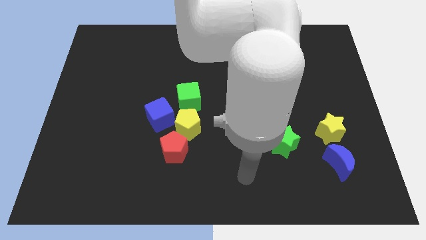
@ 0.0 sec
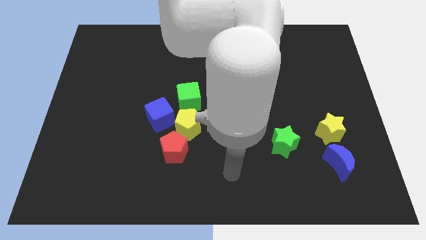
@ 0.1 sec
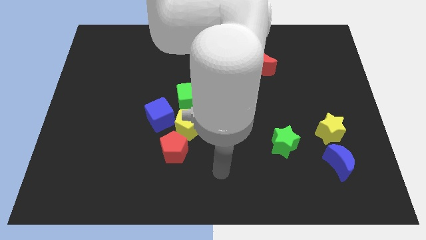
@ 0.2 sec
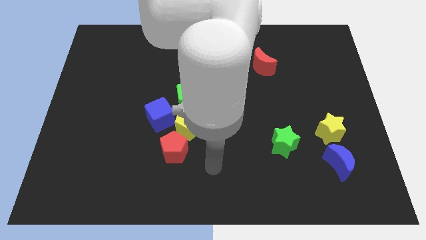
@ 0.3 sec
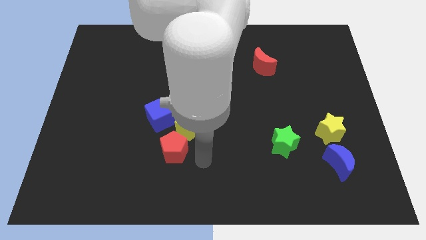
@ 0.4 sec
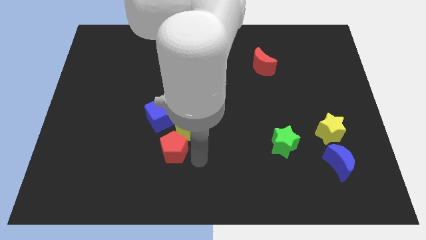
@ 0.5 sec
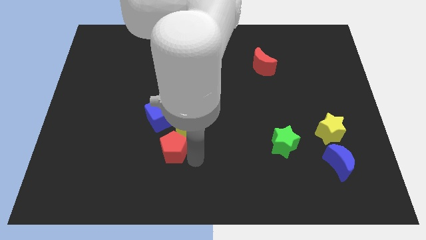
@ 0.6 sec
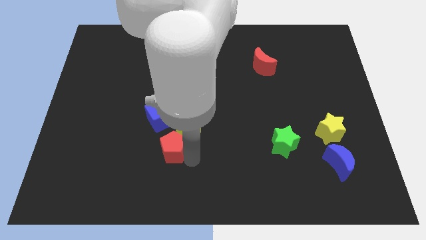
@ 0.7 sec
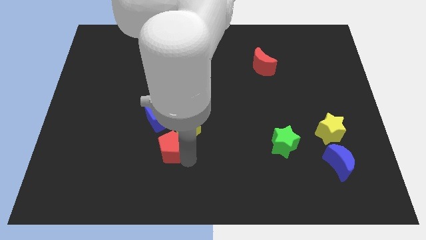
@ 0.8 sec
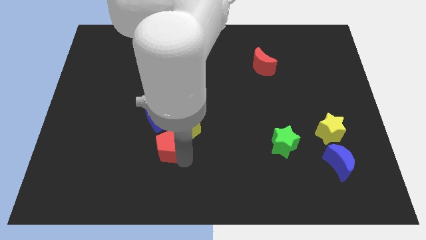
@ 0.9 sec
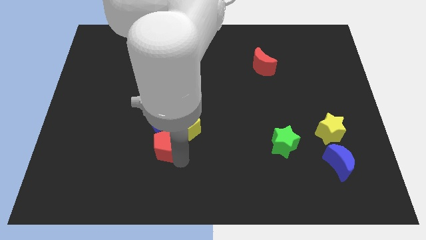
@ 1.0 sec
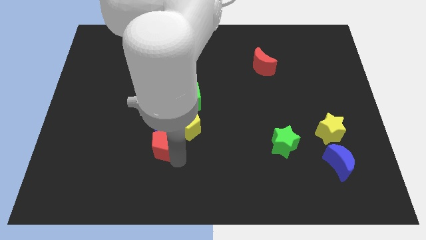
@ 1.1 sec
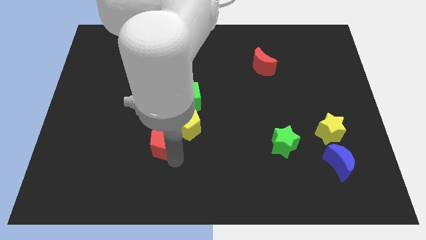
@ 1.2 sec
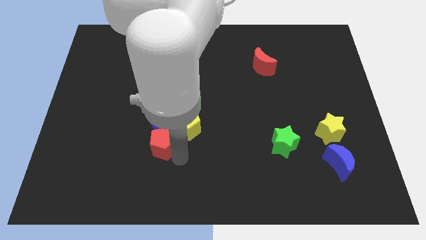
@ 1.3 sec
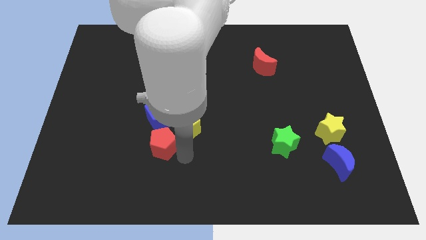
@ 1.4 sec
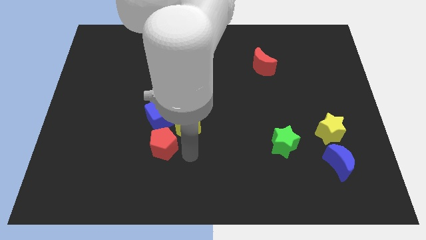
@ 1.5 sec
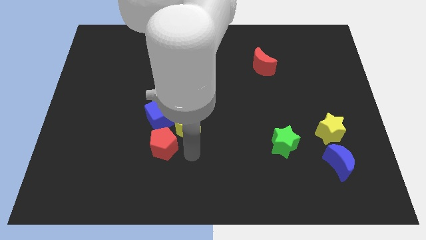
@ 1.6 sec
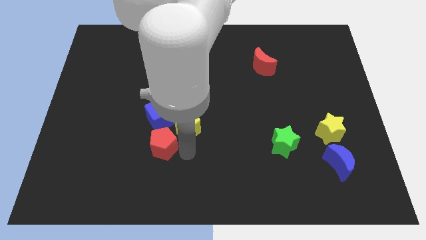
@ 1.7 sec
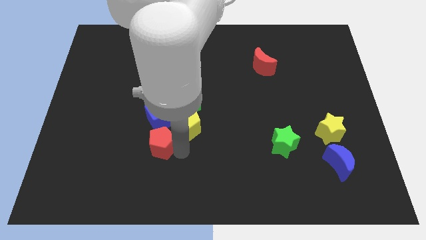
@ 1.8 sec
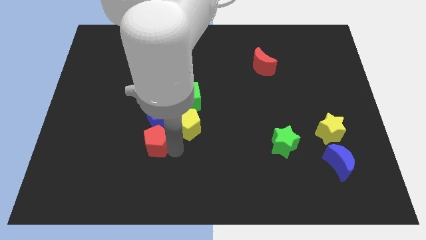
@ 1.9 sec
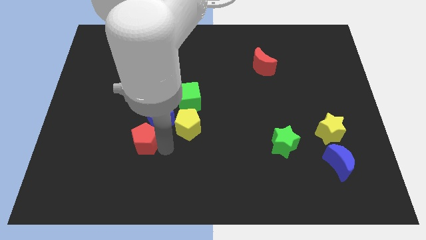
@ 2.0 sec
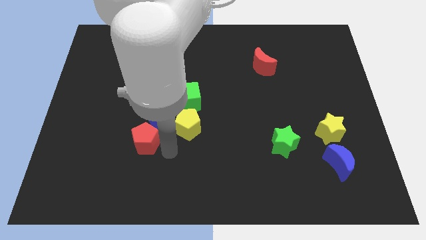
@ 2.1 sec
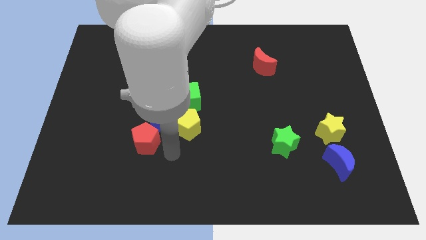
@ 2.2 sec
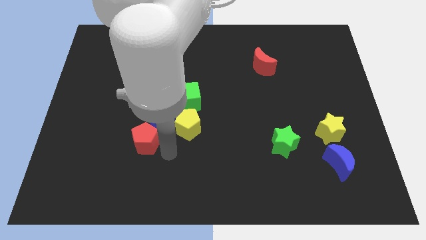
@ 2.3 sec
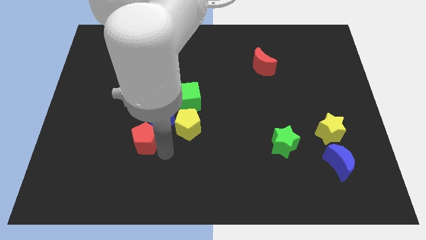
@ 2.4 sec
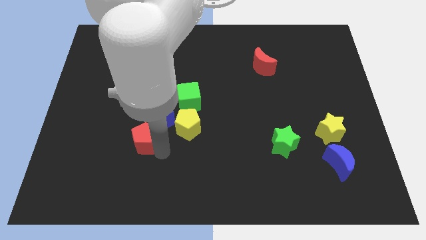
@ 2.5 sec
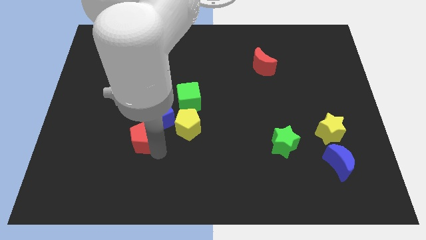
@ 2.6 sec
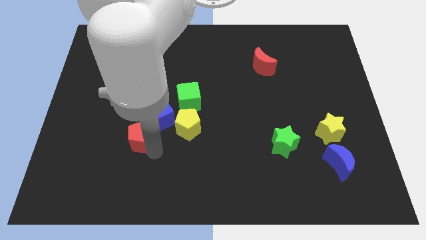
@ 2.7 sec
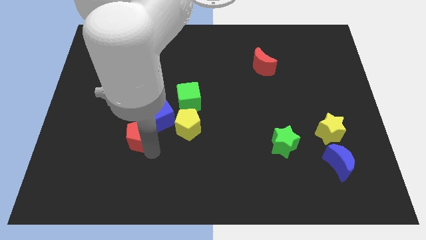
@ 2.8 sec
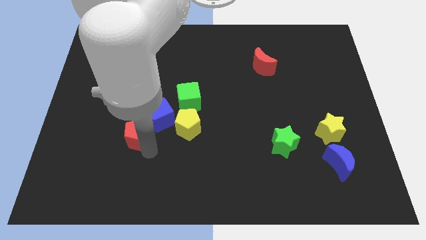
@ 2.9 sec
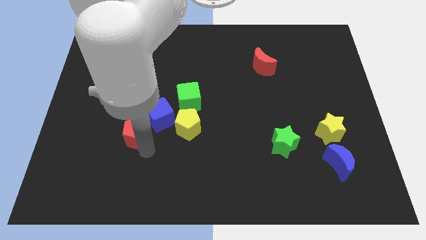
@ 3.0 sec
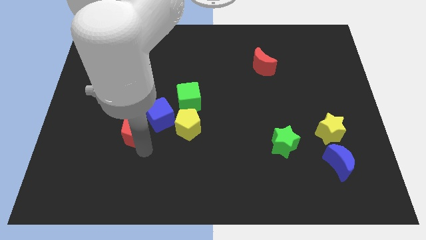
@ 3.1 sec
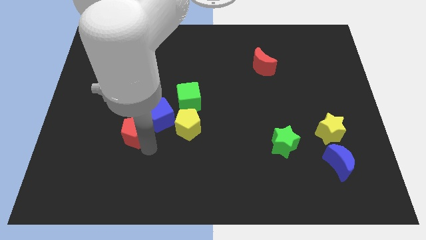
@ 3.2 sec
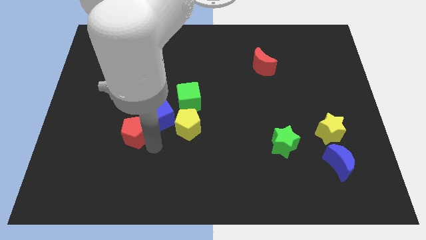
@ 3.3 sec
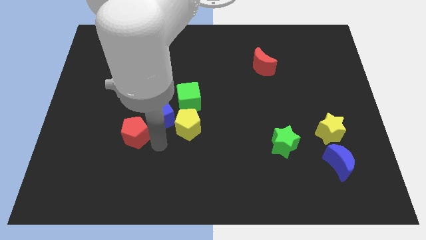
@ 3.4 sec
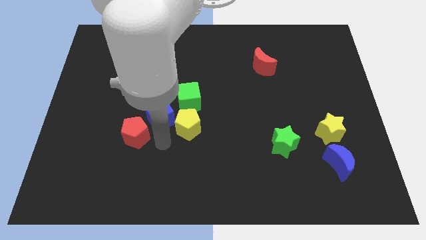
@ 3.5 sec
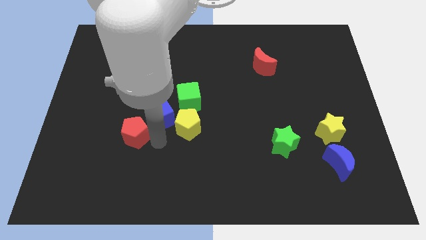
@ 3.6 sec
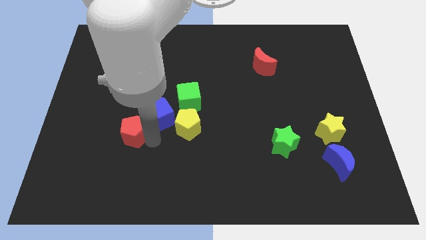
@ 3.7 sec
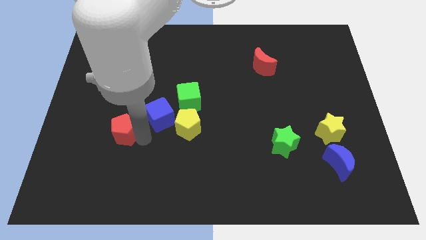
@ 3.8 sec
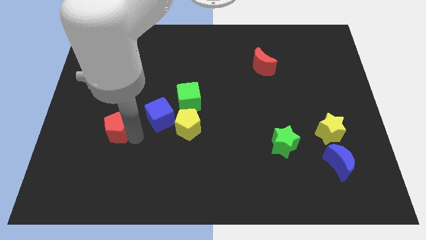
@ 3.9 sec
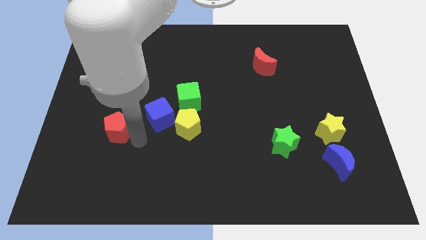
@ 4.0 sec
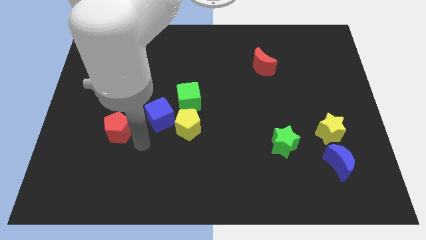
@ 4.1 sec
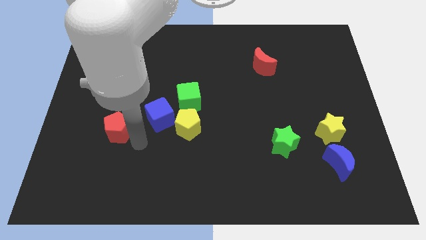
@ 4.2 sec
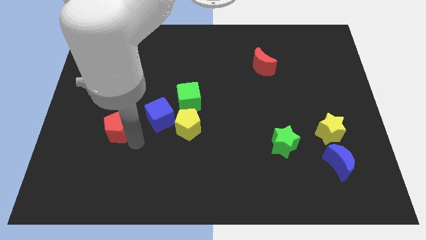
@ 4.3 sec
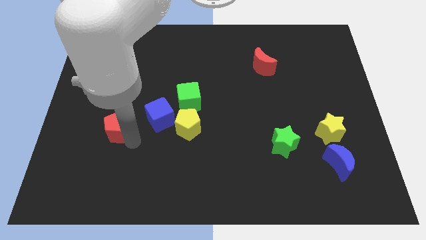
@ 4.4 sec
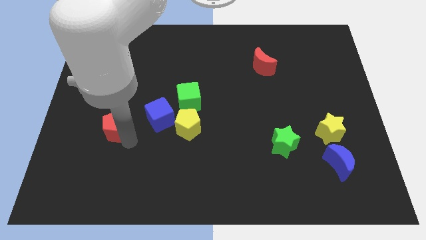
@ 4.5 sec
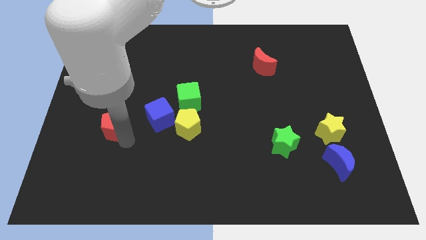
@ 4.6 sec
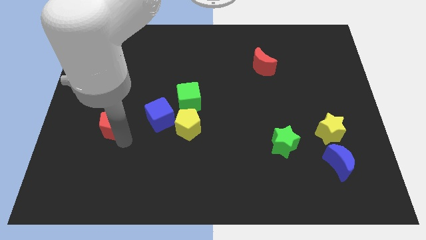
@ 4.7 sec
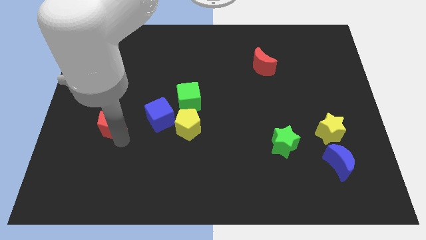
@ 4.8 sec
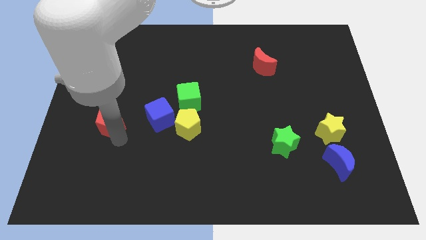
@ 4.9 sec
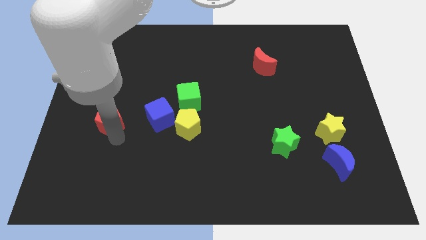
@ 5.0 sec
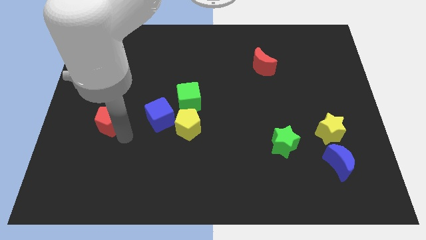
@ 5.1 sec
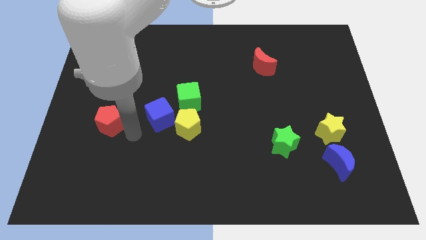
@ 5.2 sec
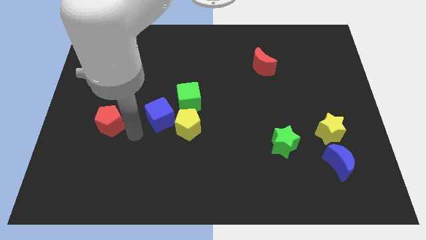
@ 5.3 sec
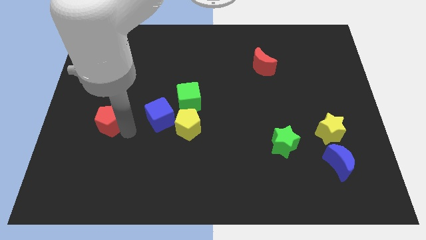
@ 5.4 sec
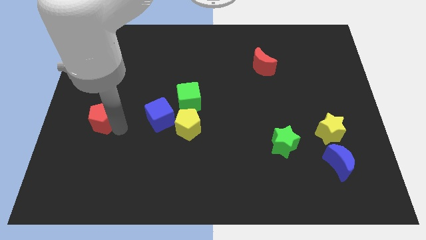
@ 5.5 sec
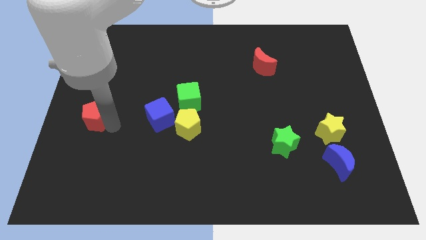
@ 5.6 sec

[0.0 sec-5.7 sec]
slide the red pentagon to the left side

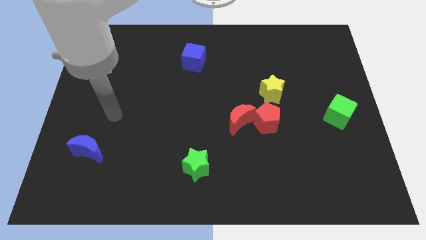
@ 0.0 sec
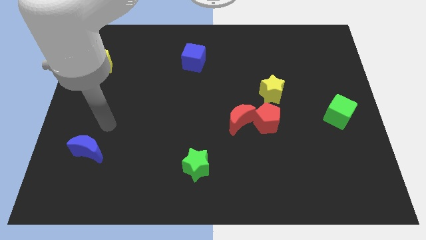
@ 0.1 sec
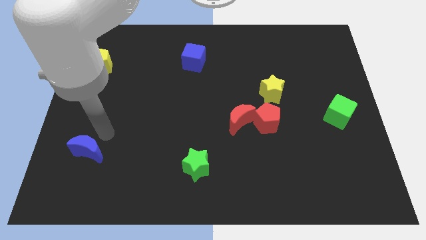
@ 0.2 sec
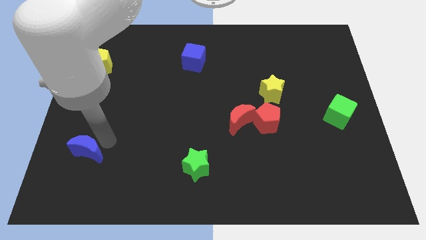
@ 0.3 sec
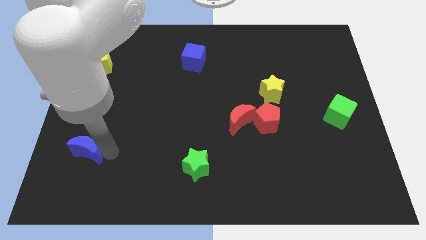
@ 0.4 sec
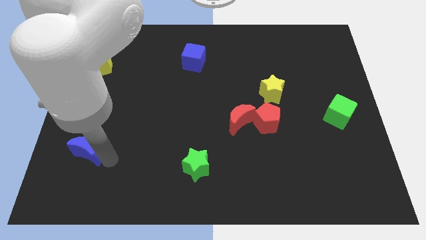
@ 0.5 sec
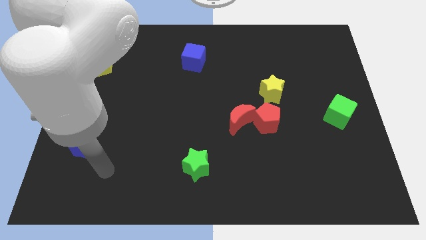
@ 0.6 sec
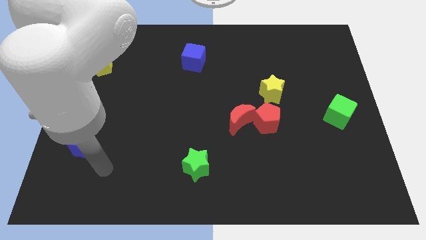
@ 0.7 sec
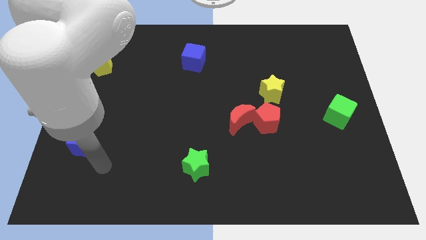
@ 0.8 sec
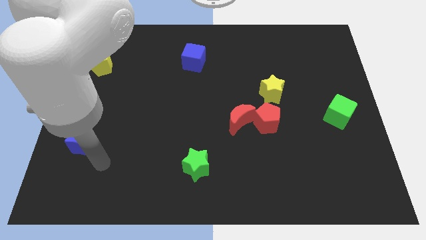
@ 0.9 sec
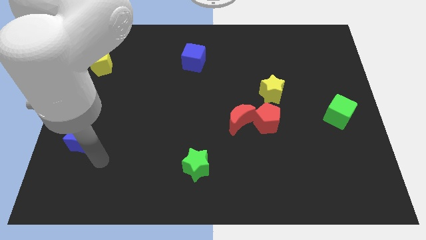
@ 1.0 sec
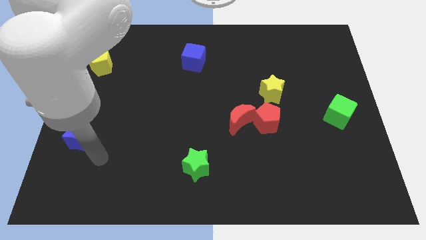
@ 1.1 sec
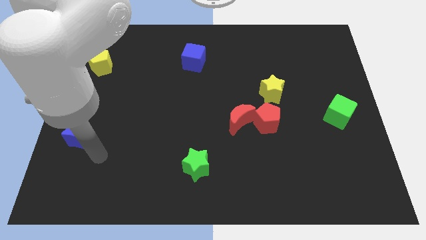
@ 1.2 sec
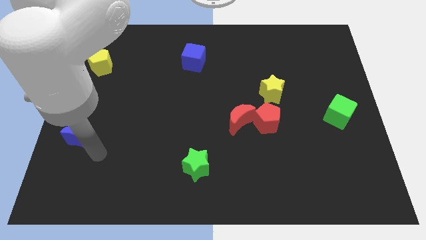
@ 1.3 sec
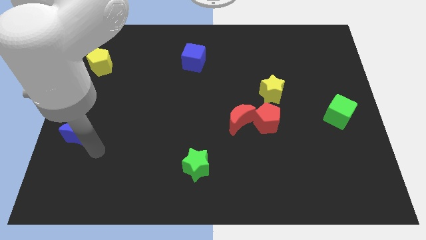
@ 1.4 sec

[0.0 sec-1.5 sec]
push the blue moon to the left side
